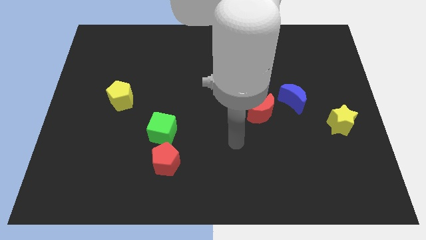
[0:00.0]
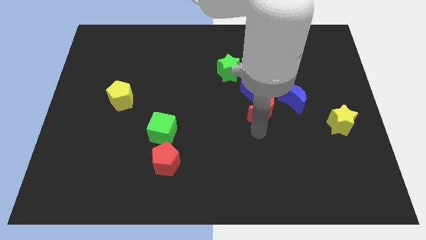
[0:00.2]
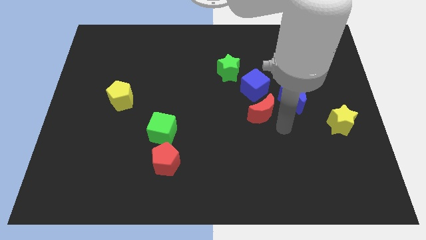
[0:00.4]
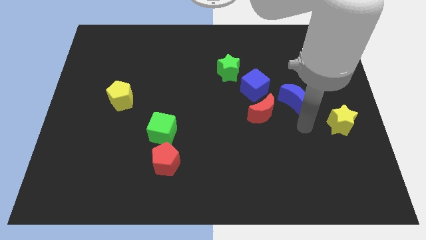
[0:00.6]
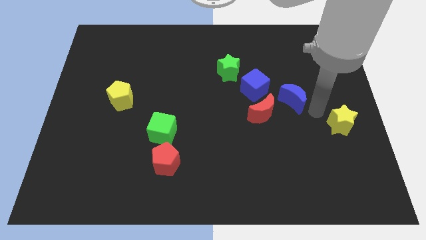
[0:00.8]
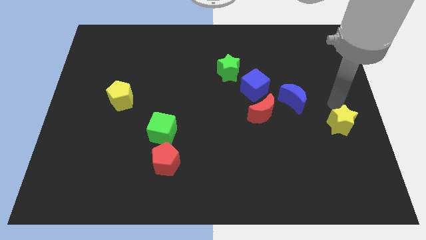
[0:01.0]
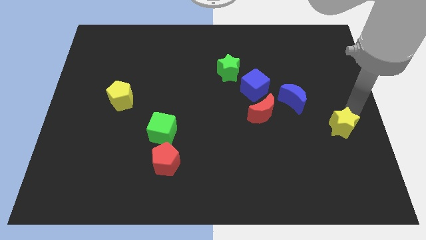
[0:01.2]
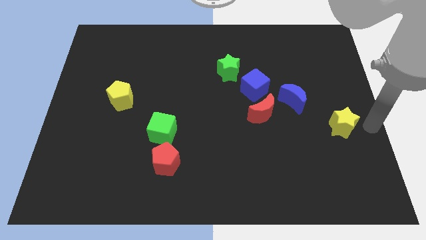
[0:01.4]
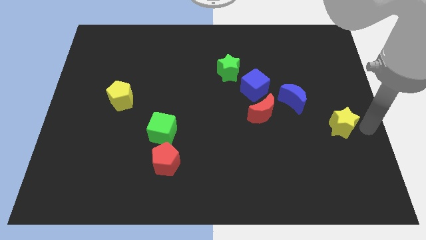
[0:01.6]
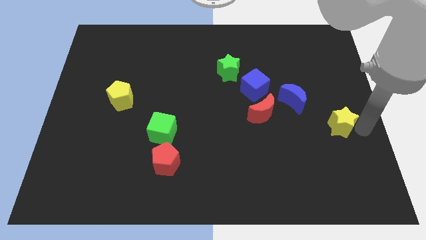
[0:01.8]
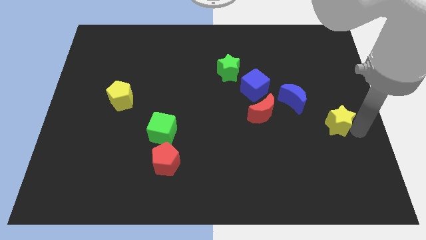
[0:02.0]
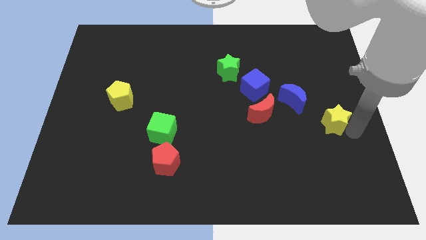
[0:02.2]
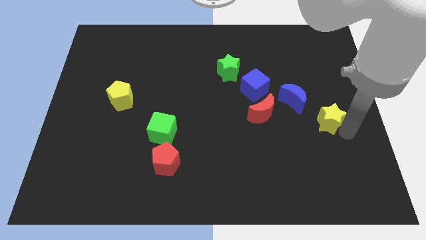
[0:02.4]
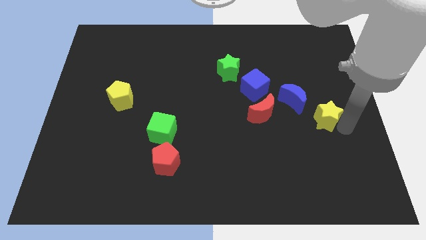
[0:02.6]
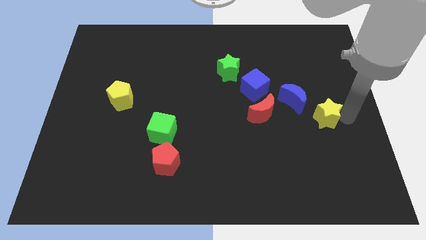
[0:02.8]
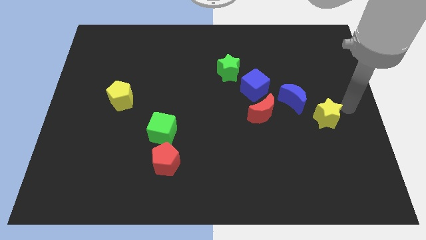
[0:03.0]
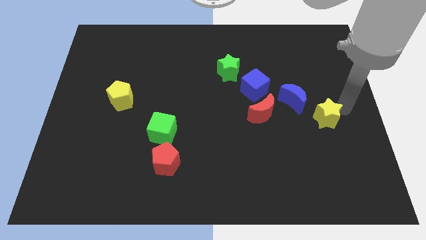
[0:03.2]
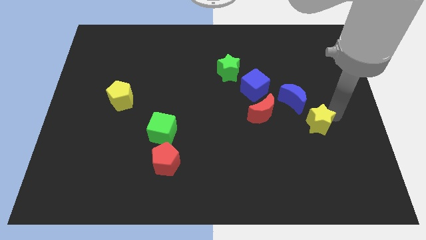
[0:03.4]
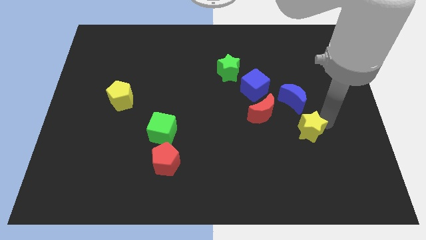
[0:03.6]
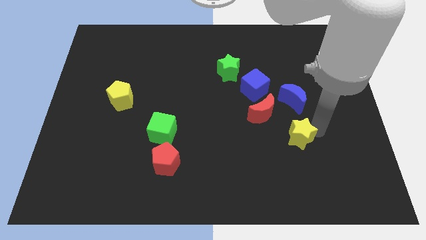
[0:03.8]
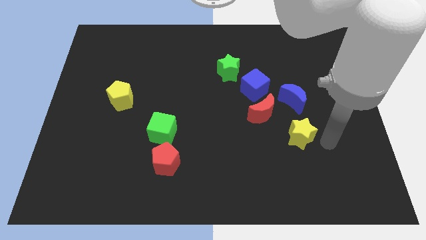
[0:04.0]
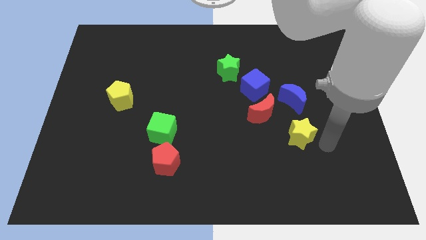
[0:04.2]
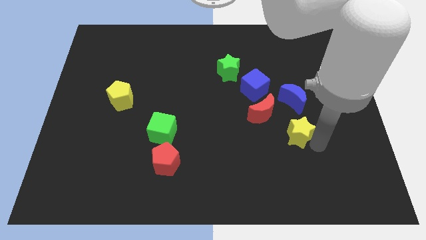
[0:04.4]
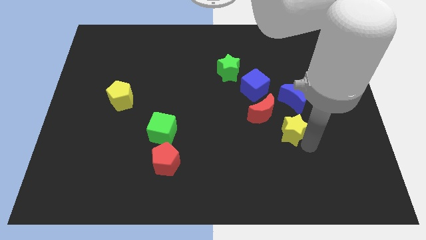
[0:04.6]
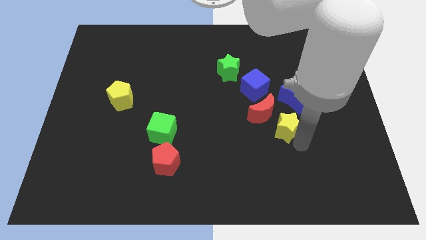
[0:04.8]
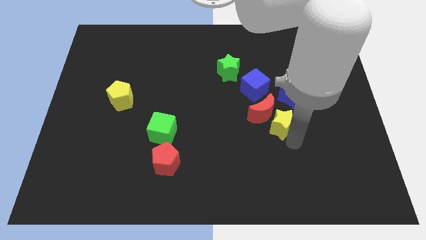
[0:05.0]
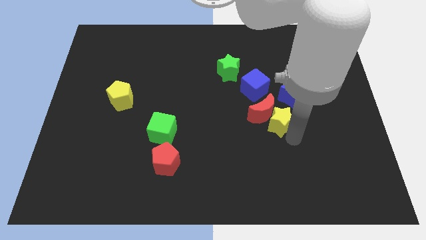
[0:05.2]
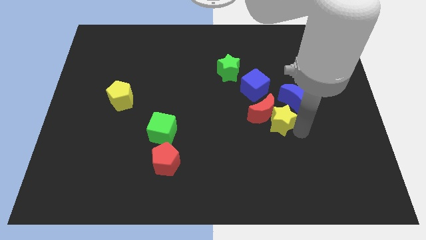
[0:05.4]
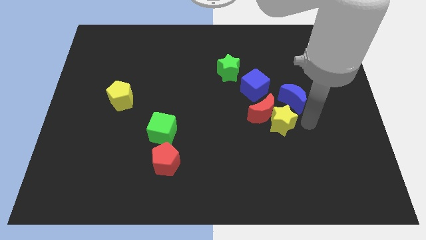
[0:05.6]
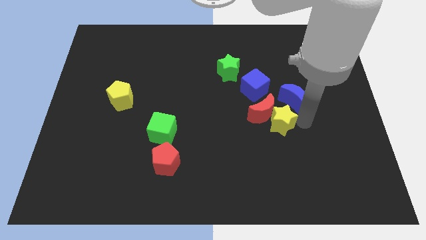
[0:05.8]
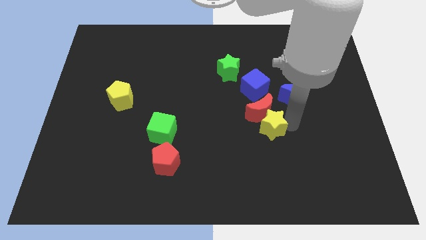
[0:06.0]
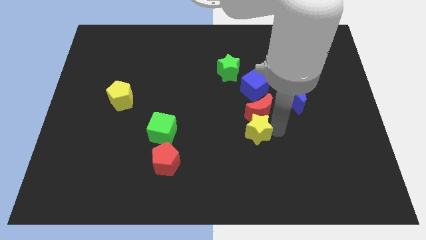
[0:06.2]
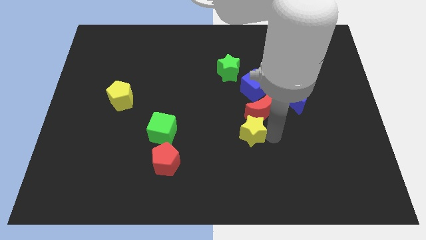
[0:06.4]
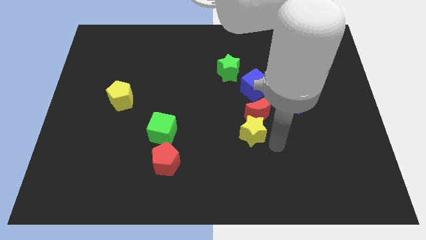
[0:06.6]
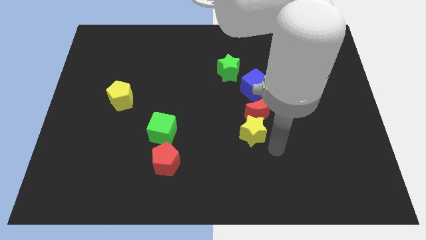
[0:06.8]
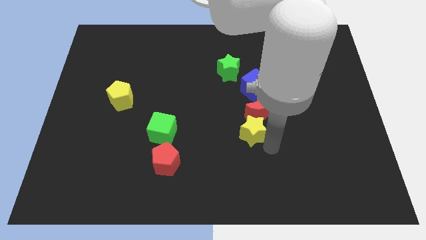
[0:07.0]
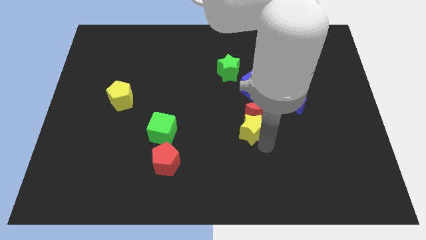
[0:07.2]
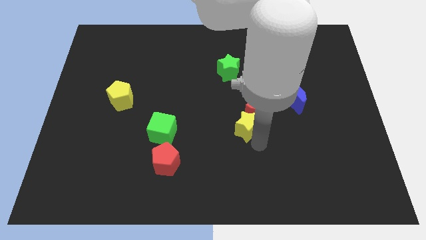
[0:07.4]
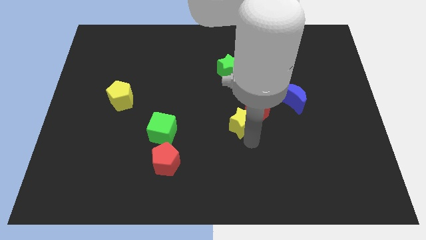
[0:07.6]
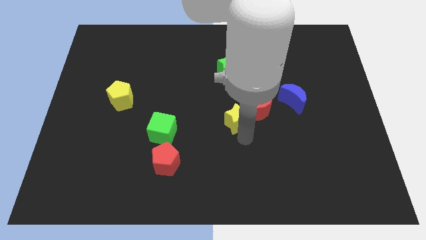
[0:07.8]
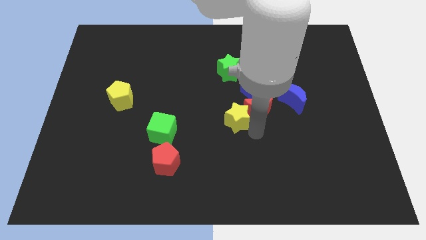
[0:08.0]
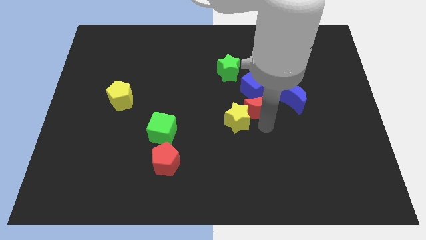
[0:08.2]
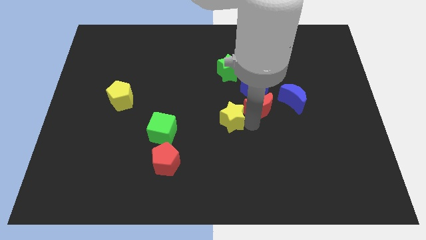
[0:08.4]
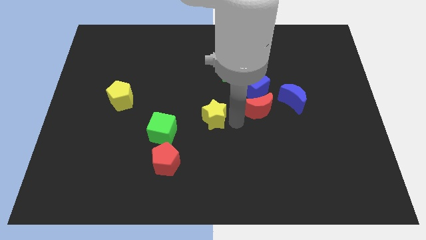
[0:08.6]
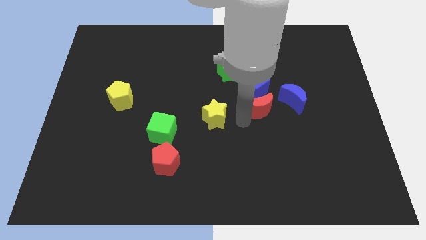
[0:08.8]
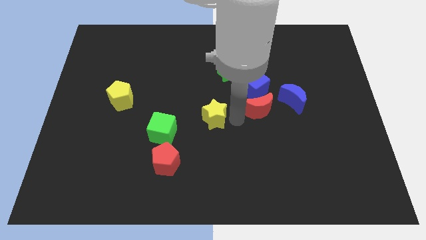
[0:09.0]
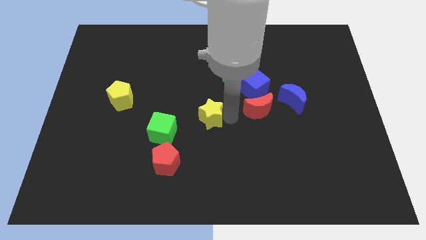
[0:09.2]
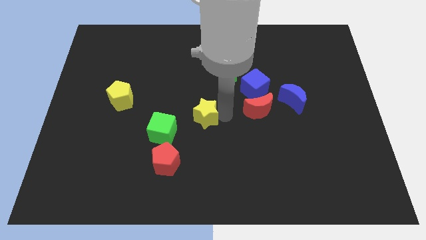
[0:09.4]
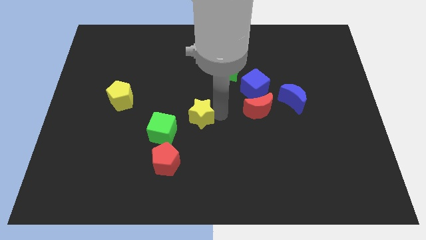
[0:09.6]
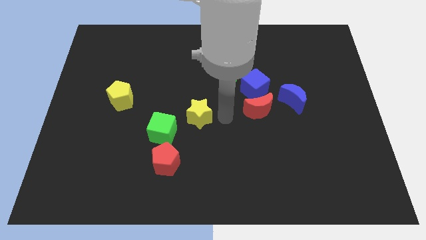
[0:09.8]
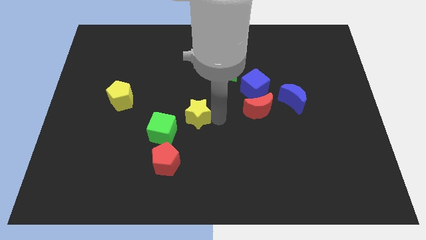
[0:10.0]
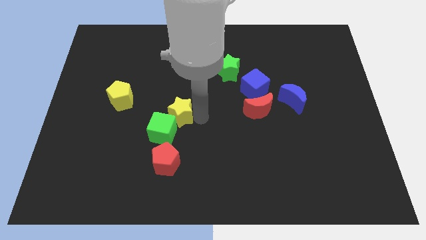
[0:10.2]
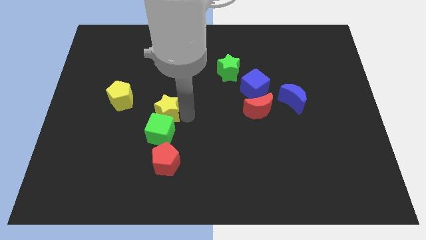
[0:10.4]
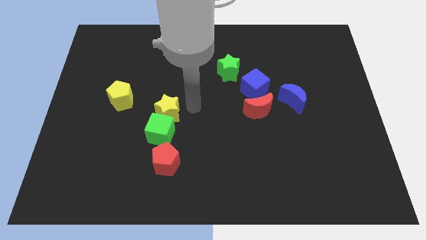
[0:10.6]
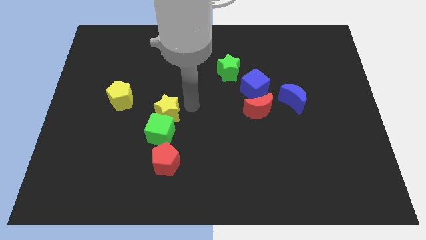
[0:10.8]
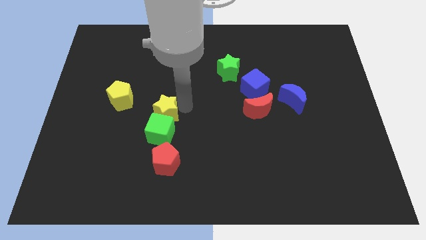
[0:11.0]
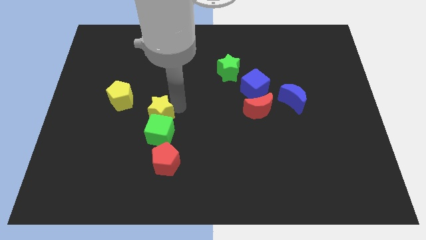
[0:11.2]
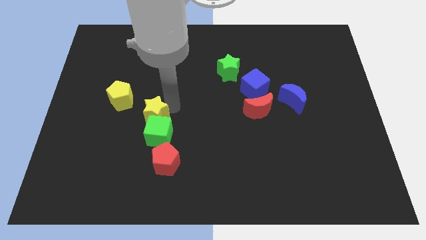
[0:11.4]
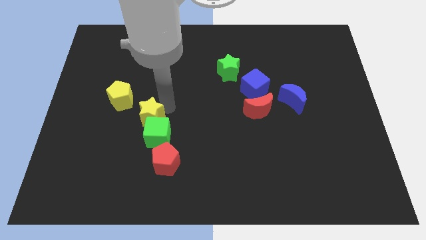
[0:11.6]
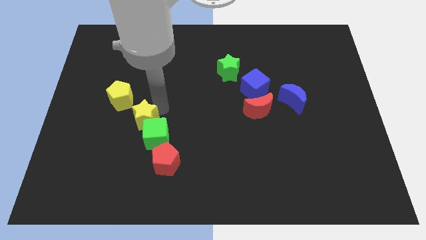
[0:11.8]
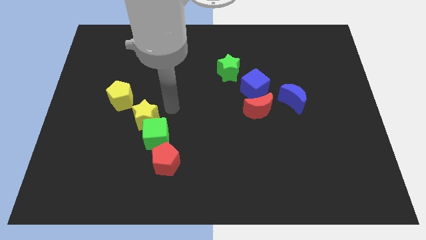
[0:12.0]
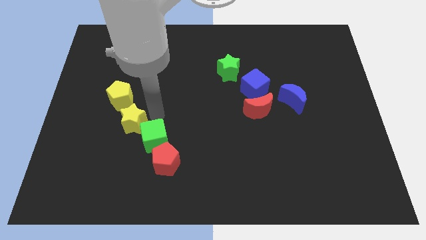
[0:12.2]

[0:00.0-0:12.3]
slide the yellow star to the left of the green cube

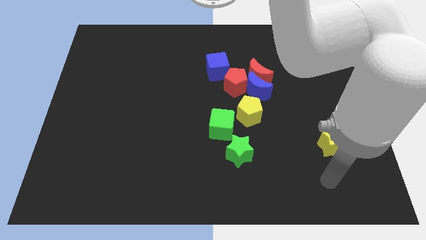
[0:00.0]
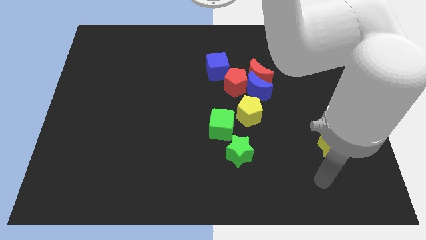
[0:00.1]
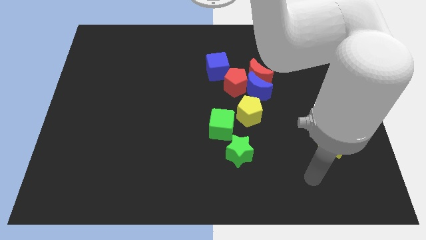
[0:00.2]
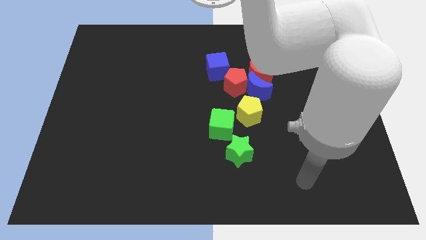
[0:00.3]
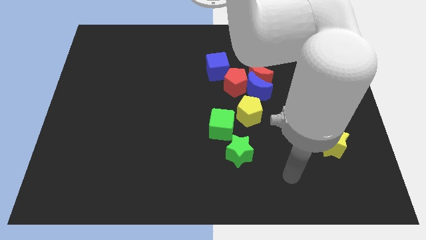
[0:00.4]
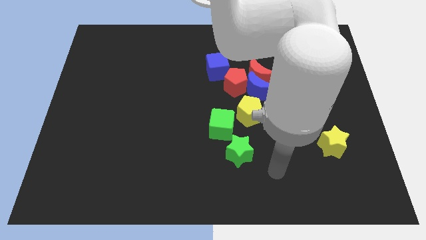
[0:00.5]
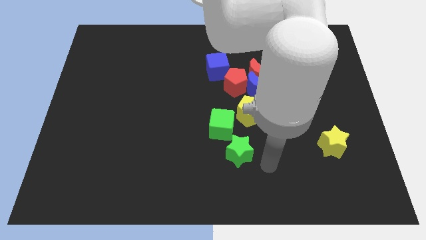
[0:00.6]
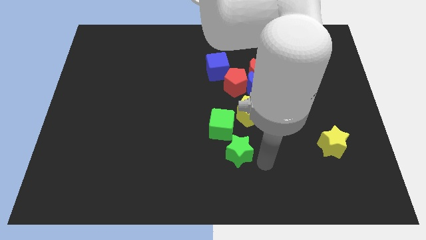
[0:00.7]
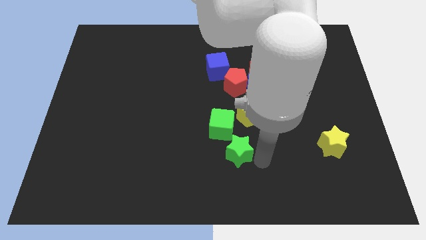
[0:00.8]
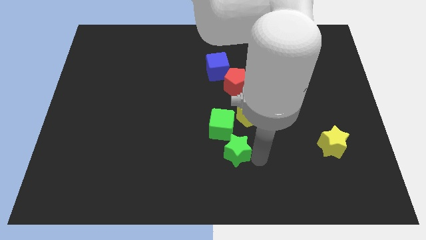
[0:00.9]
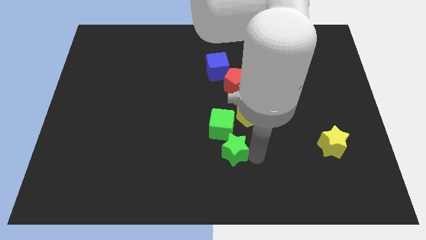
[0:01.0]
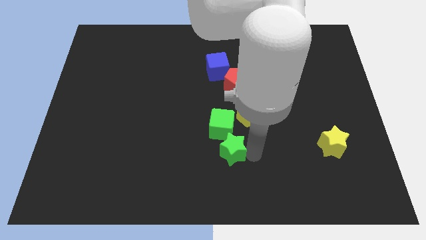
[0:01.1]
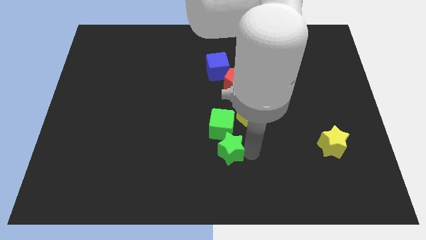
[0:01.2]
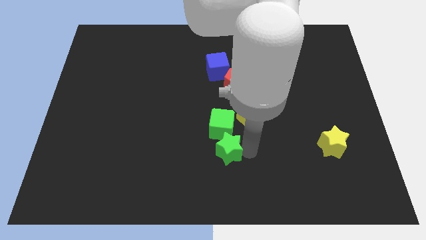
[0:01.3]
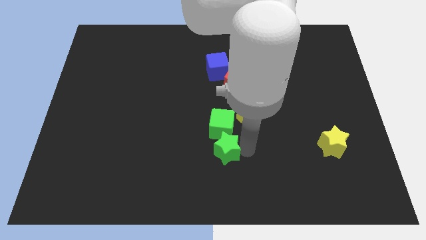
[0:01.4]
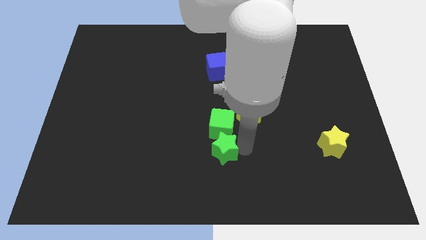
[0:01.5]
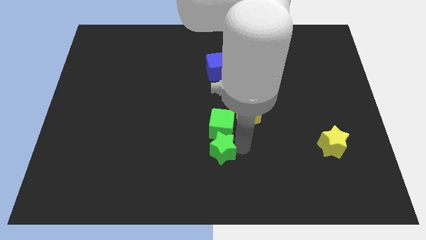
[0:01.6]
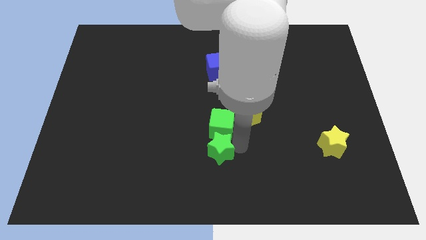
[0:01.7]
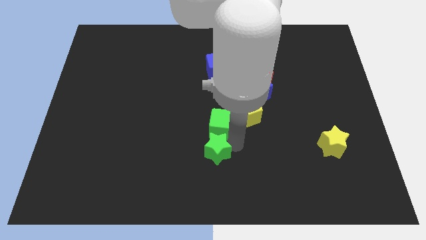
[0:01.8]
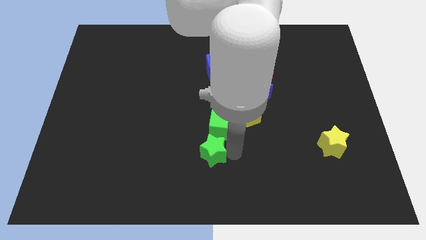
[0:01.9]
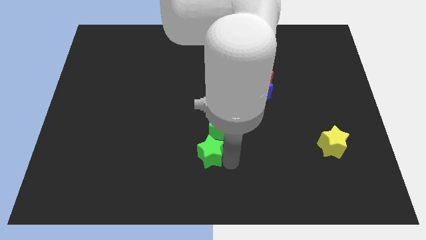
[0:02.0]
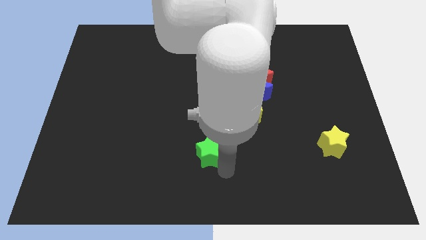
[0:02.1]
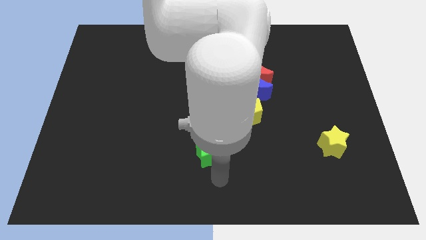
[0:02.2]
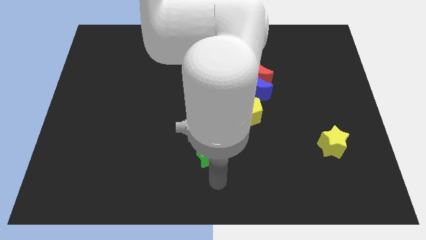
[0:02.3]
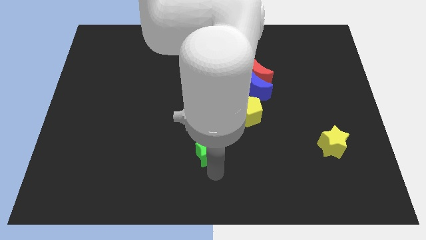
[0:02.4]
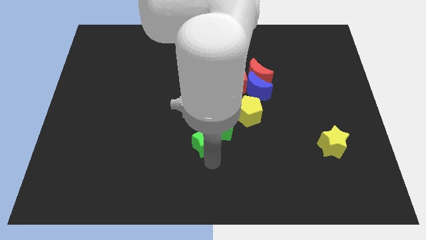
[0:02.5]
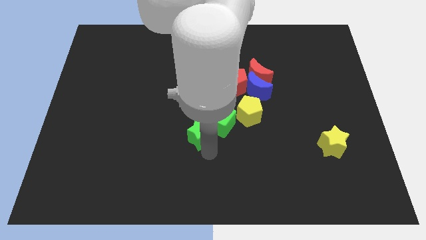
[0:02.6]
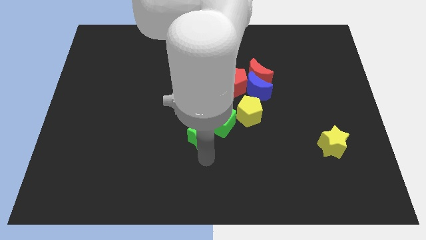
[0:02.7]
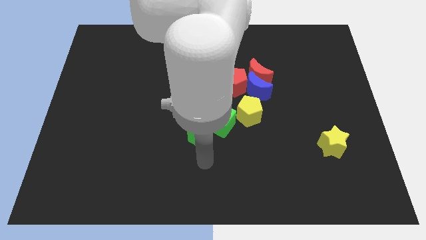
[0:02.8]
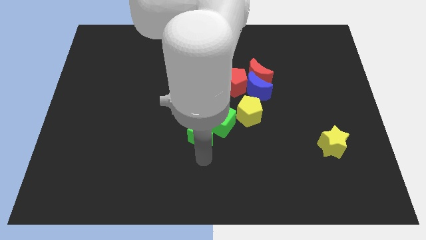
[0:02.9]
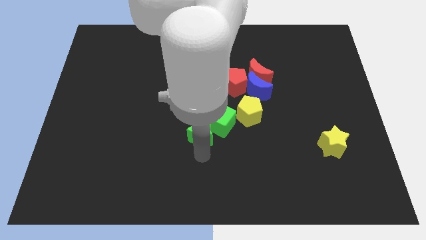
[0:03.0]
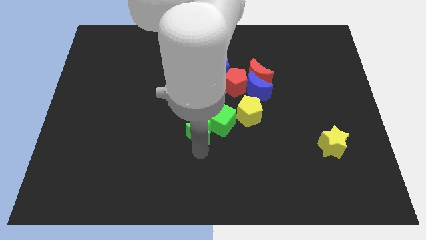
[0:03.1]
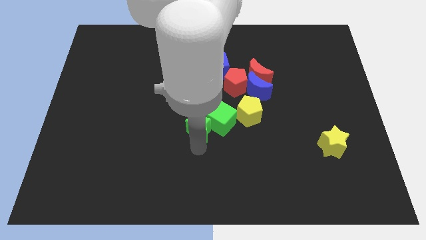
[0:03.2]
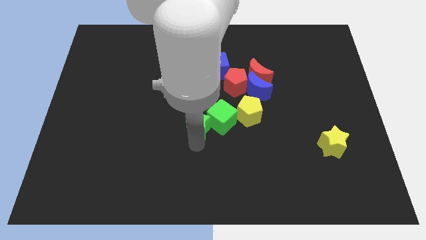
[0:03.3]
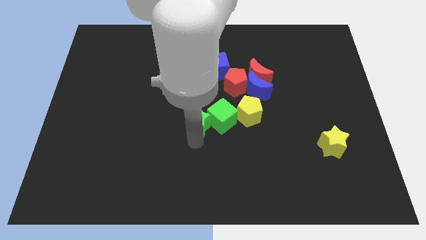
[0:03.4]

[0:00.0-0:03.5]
slide the green star to the top left side of the green cube
